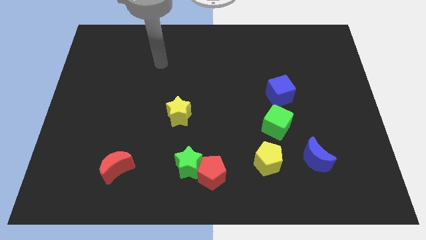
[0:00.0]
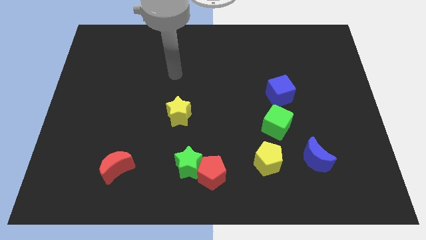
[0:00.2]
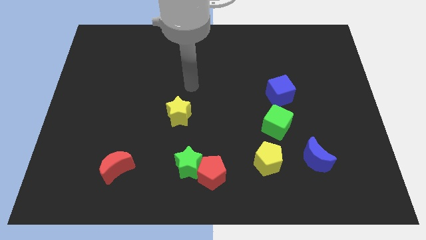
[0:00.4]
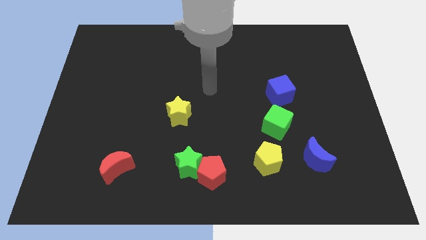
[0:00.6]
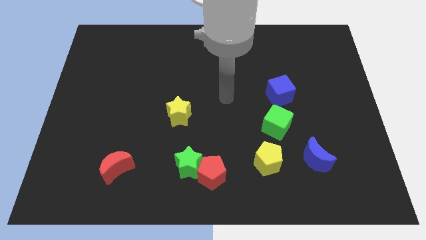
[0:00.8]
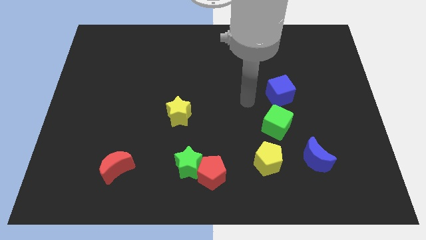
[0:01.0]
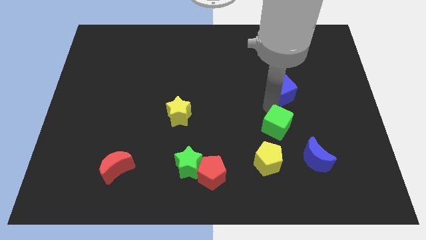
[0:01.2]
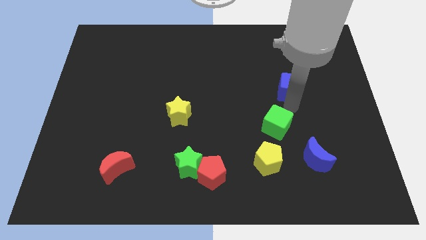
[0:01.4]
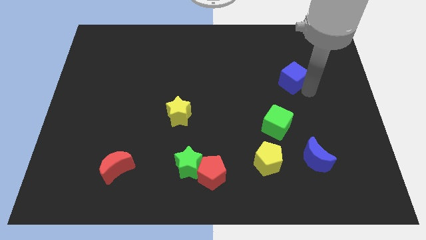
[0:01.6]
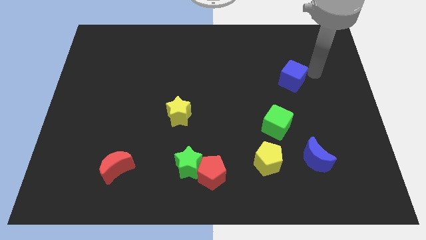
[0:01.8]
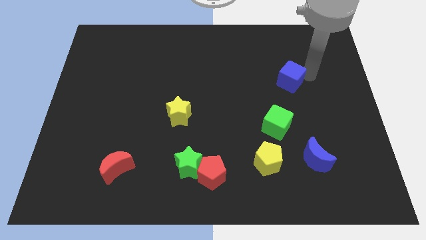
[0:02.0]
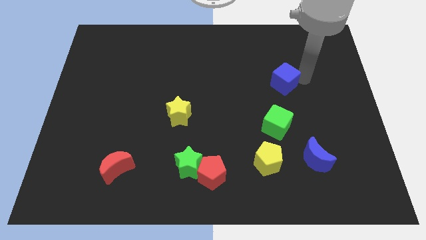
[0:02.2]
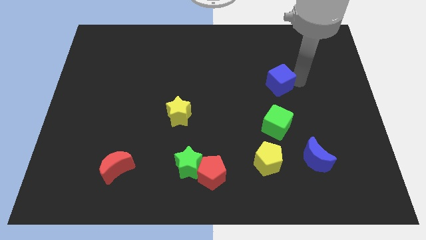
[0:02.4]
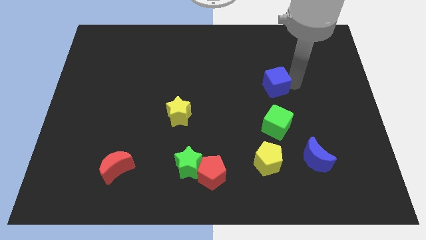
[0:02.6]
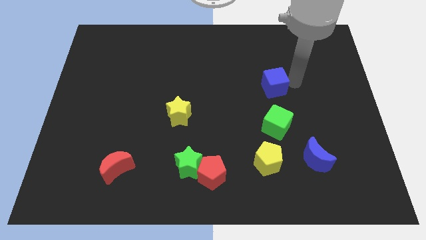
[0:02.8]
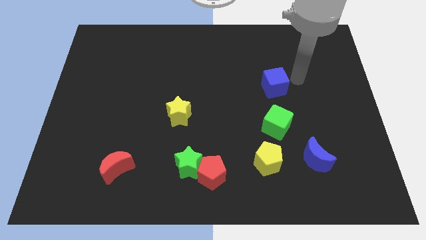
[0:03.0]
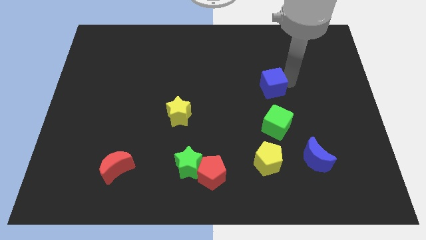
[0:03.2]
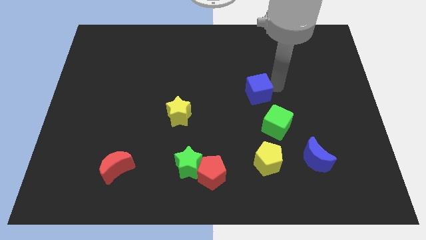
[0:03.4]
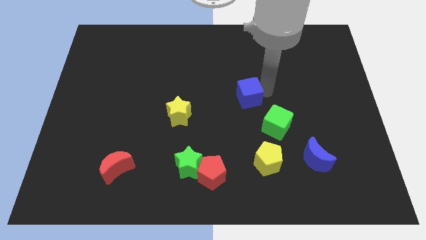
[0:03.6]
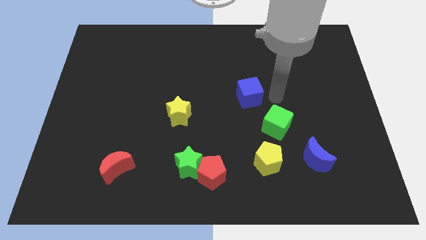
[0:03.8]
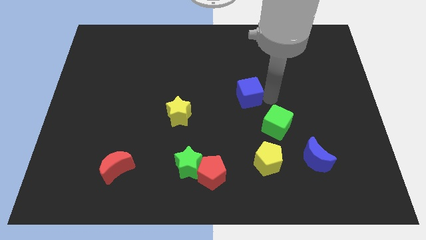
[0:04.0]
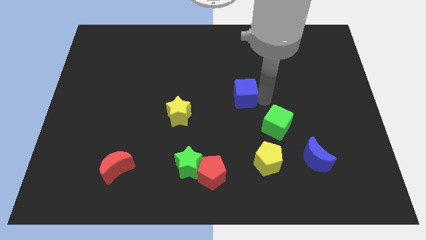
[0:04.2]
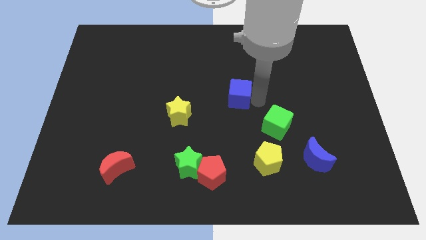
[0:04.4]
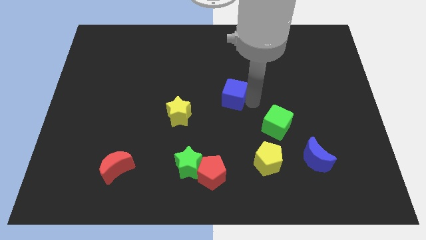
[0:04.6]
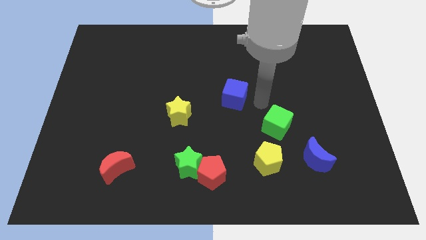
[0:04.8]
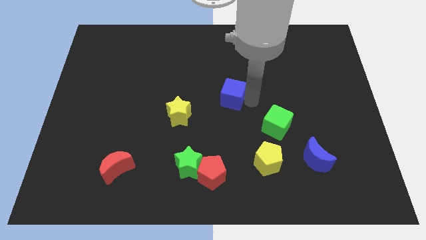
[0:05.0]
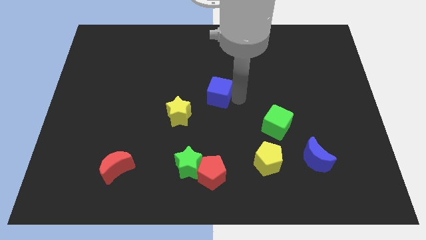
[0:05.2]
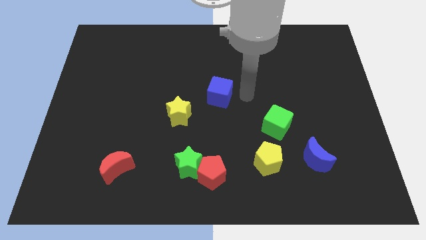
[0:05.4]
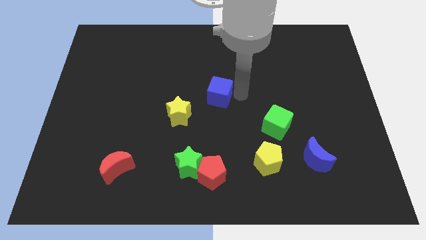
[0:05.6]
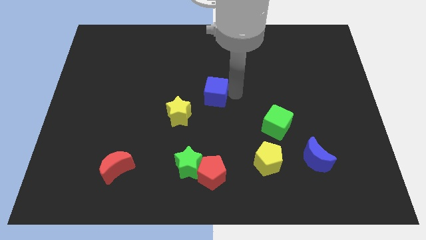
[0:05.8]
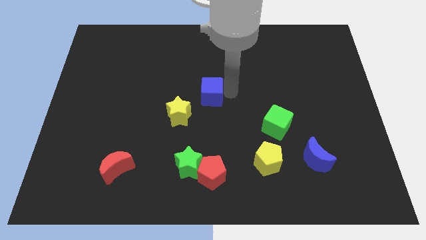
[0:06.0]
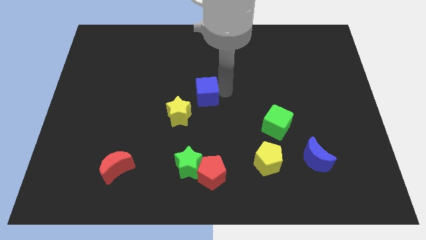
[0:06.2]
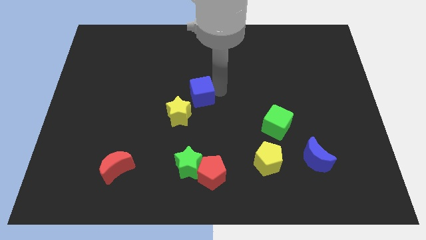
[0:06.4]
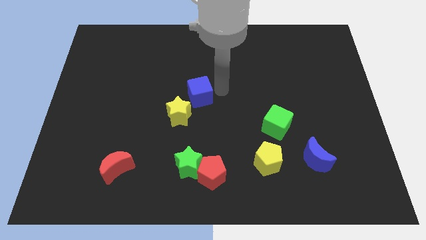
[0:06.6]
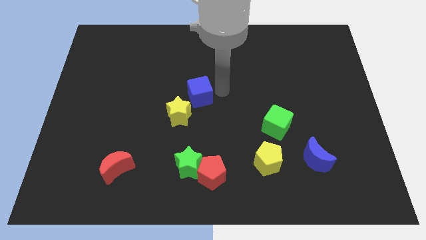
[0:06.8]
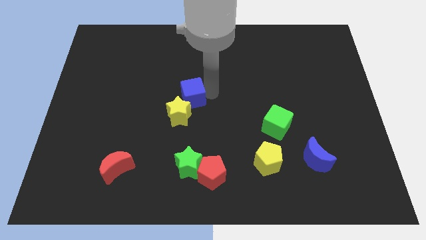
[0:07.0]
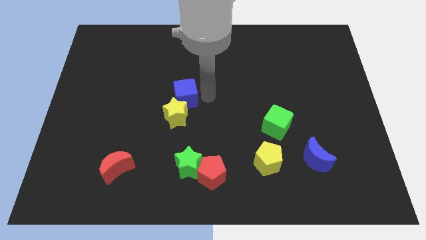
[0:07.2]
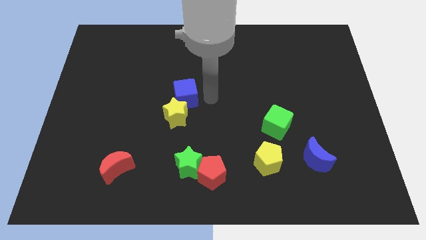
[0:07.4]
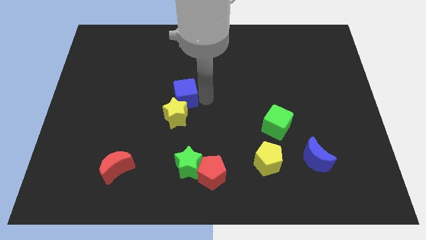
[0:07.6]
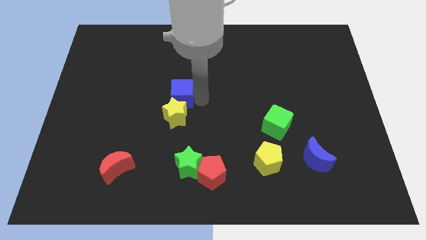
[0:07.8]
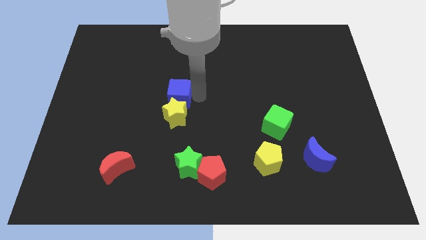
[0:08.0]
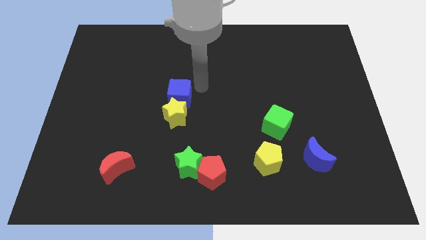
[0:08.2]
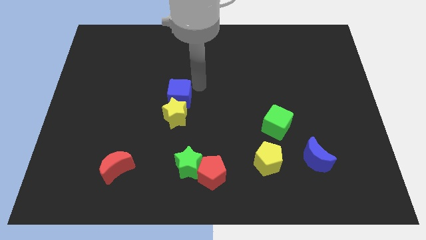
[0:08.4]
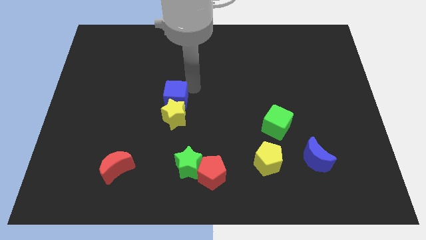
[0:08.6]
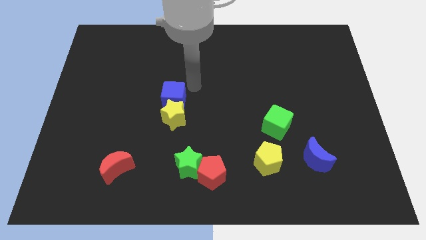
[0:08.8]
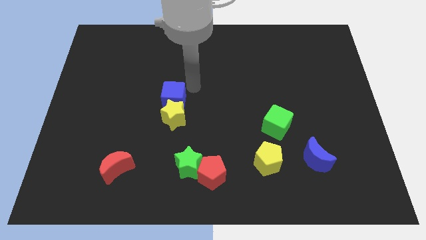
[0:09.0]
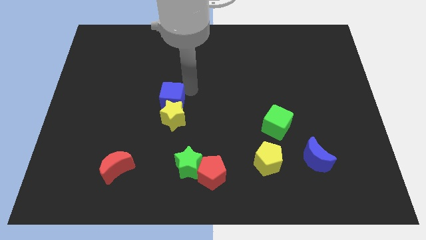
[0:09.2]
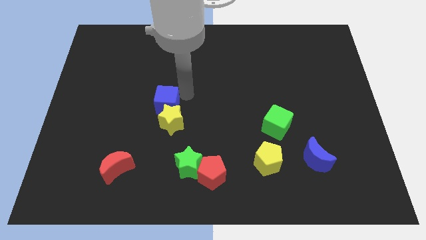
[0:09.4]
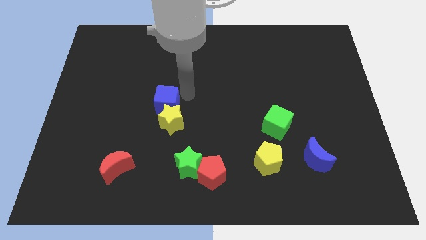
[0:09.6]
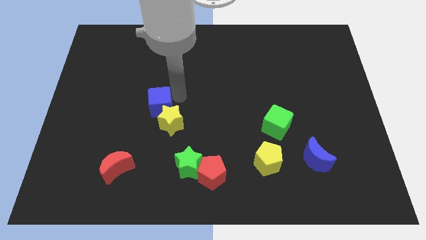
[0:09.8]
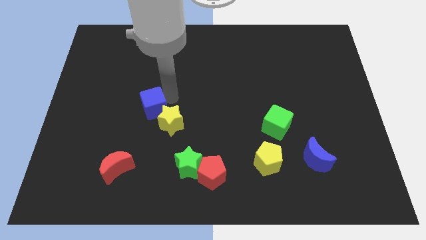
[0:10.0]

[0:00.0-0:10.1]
push the blue cube to the left of the yellow star

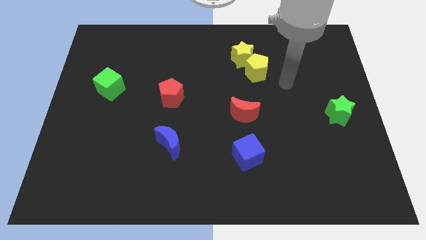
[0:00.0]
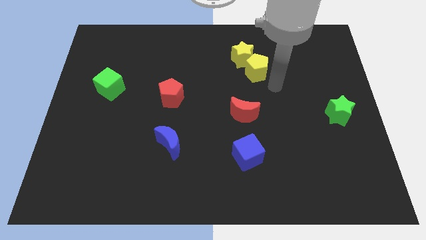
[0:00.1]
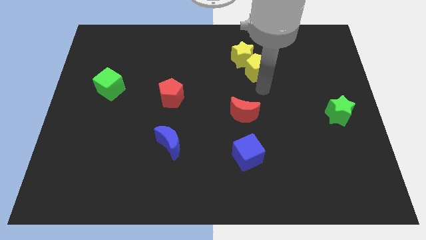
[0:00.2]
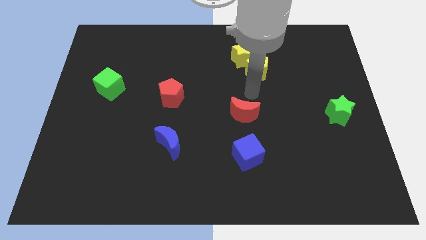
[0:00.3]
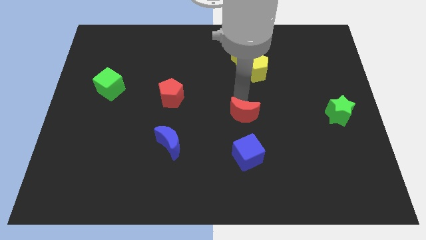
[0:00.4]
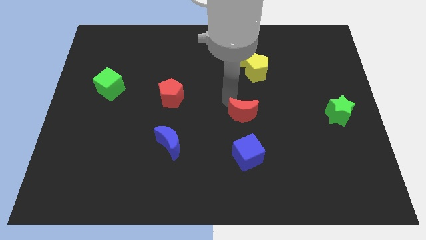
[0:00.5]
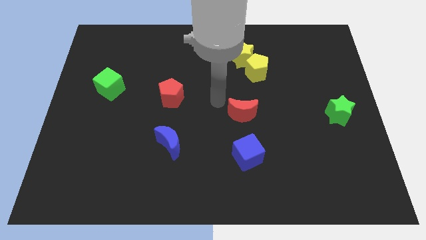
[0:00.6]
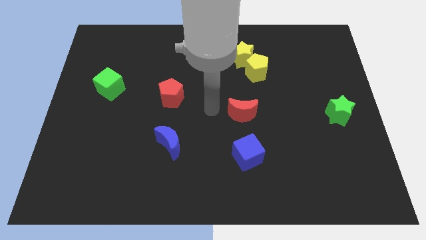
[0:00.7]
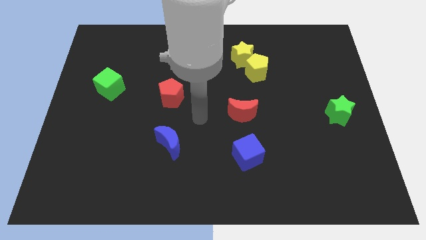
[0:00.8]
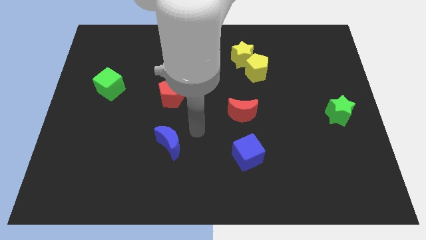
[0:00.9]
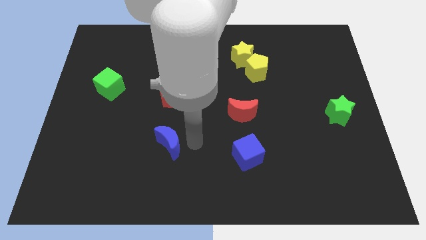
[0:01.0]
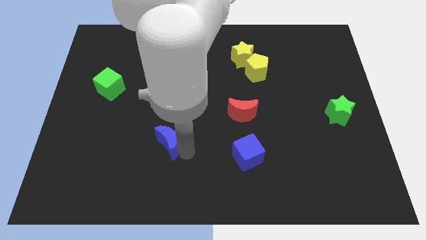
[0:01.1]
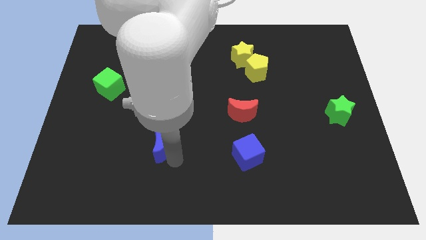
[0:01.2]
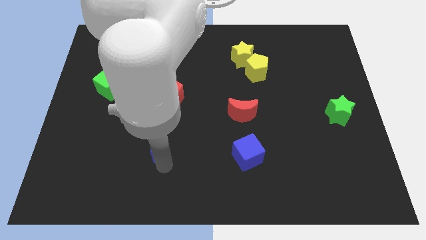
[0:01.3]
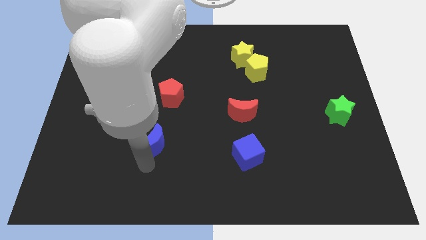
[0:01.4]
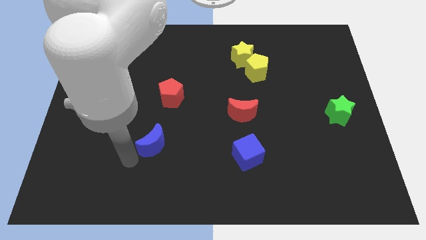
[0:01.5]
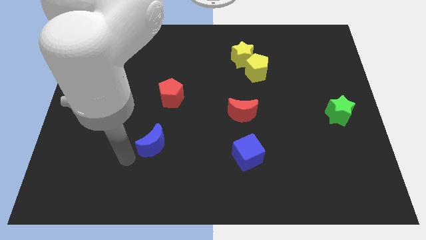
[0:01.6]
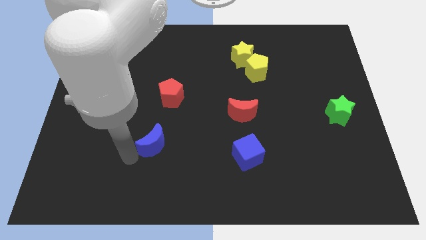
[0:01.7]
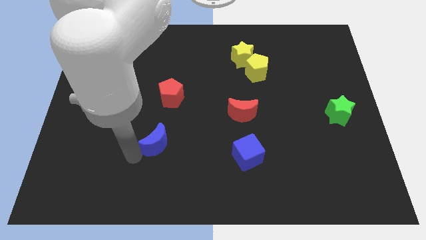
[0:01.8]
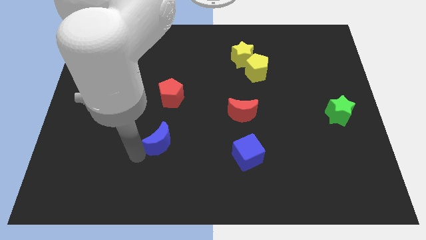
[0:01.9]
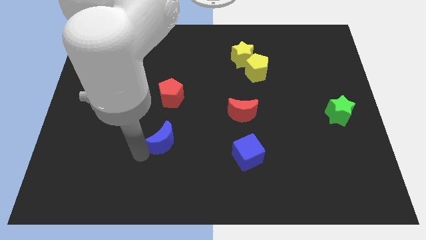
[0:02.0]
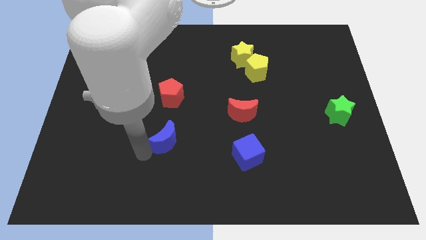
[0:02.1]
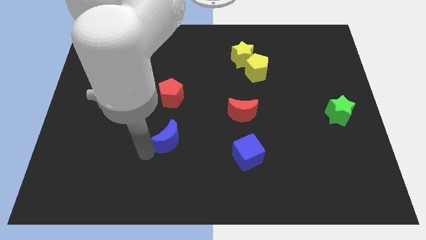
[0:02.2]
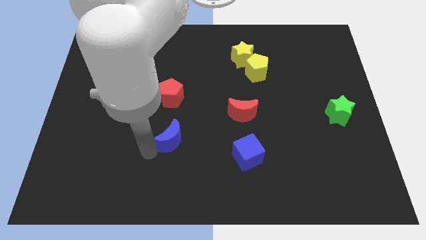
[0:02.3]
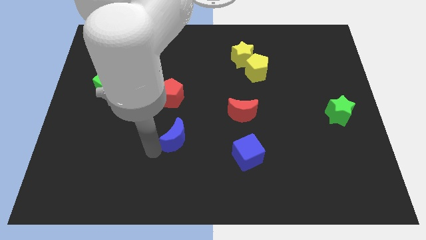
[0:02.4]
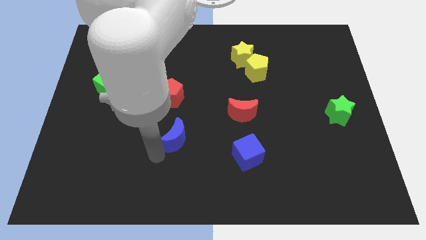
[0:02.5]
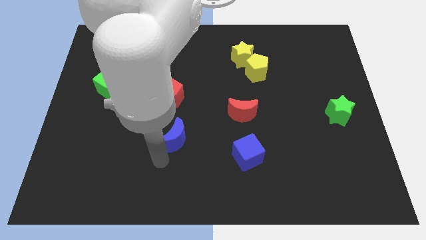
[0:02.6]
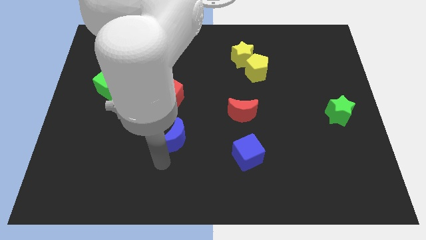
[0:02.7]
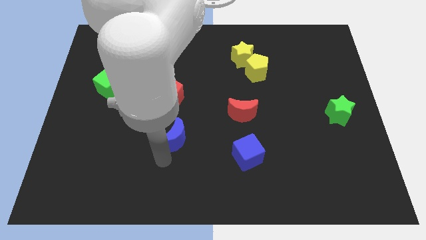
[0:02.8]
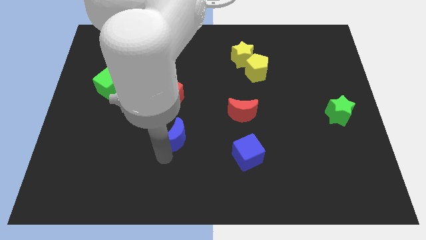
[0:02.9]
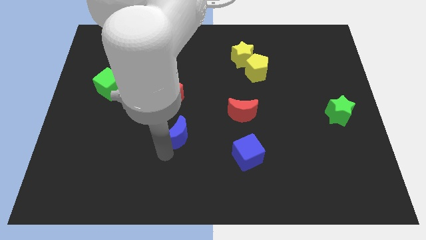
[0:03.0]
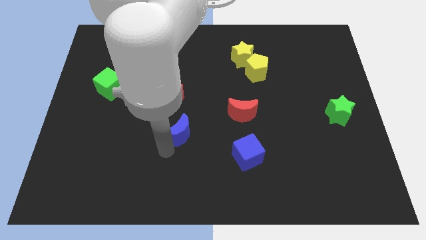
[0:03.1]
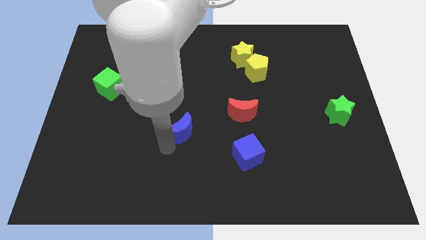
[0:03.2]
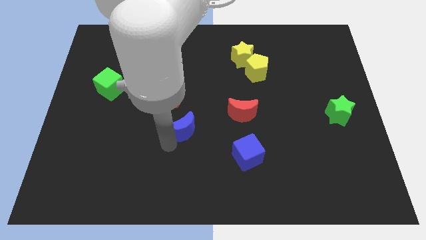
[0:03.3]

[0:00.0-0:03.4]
slide the blue moon diagonally down and to the right of the red pentagon
